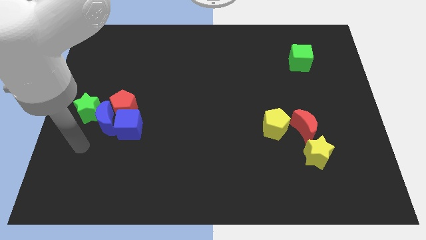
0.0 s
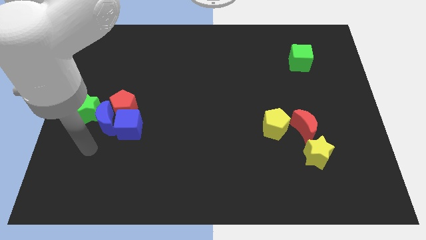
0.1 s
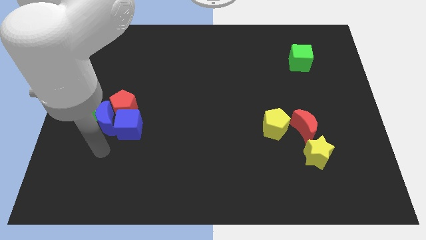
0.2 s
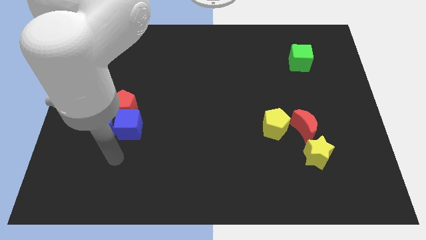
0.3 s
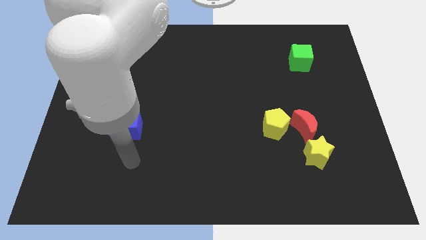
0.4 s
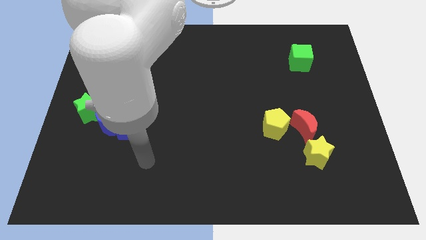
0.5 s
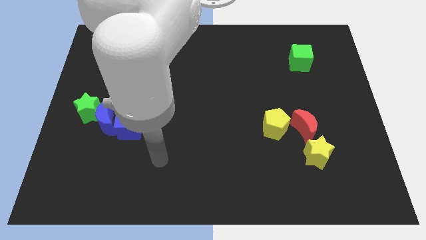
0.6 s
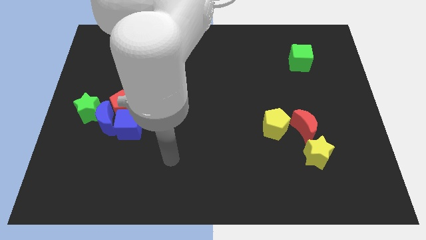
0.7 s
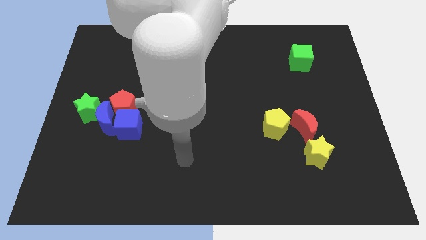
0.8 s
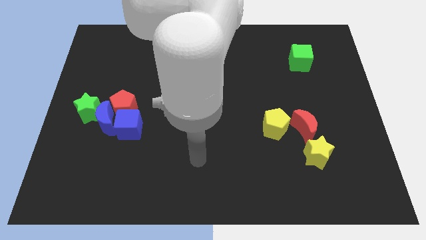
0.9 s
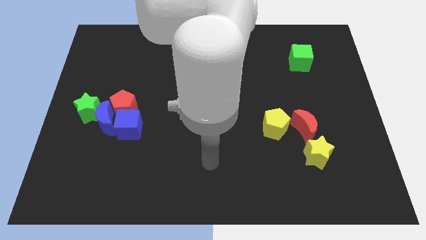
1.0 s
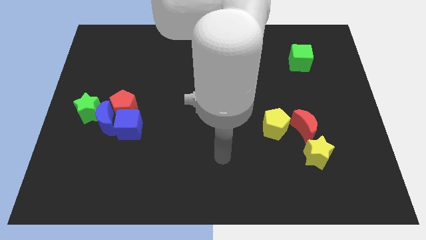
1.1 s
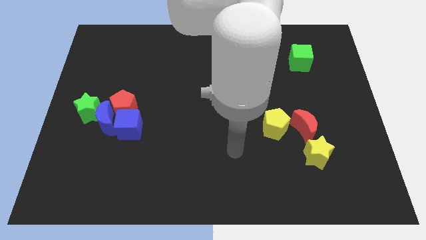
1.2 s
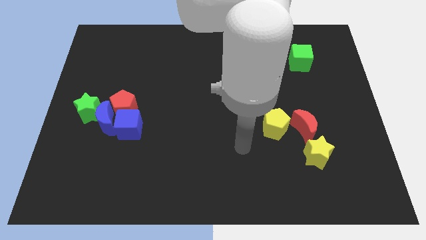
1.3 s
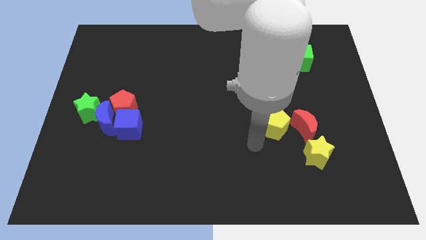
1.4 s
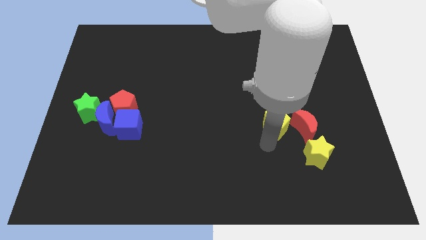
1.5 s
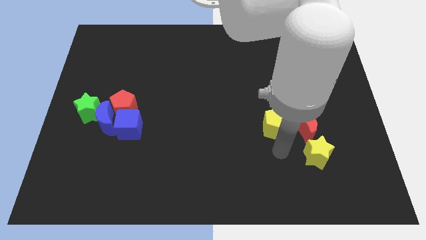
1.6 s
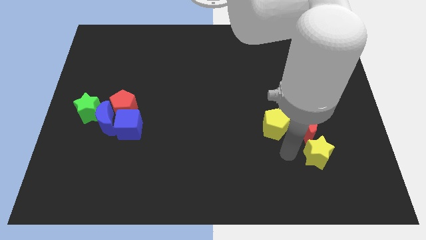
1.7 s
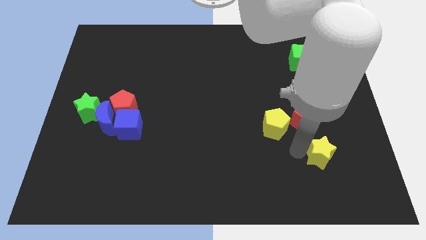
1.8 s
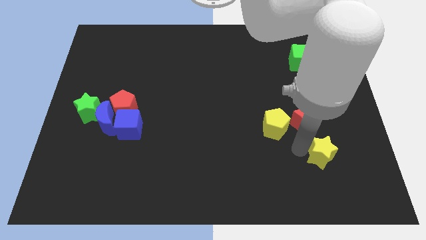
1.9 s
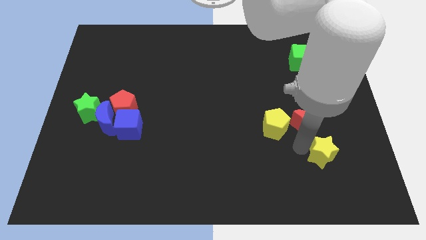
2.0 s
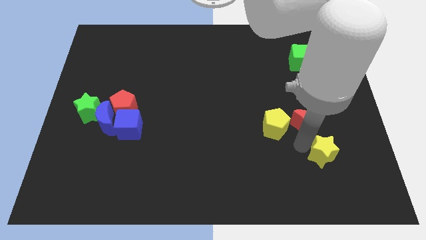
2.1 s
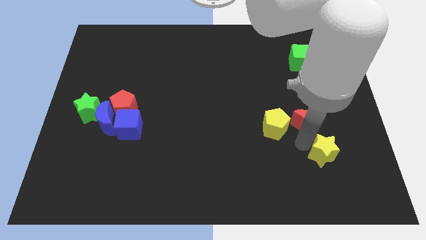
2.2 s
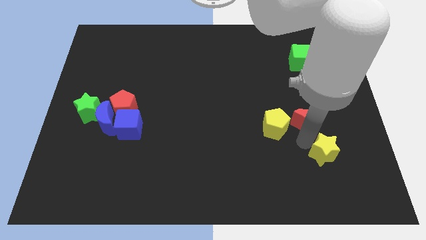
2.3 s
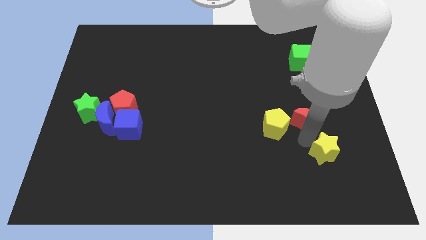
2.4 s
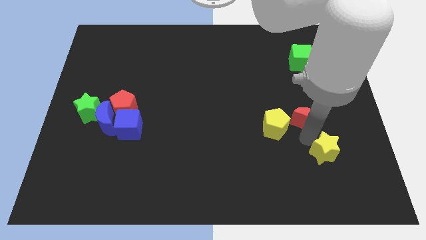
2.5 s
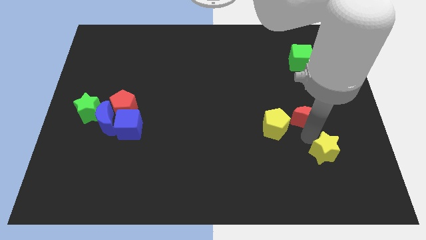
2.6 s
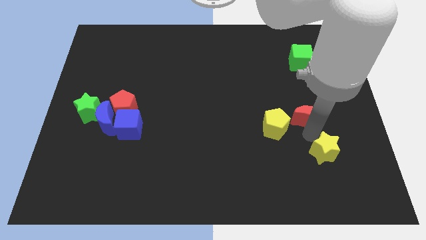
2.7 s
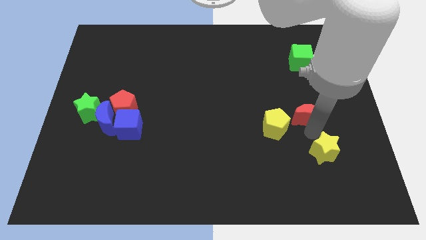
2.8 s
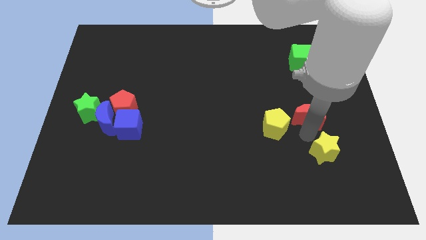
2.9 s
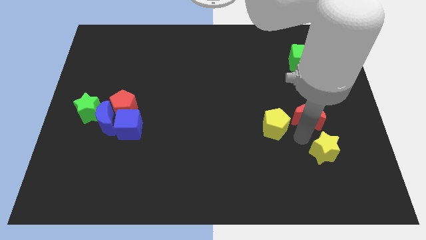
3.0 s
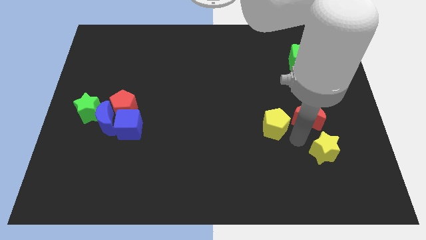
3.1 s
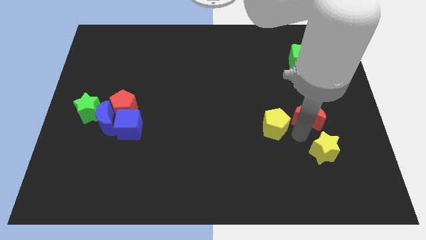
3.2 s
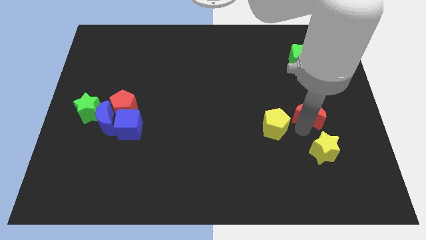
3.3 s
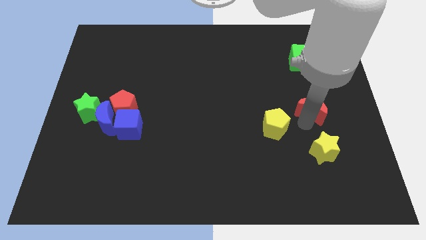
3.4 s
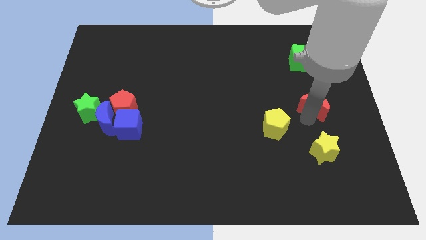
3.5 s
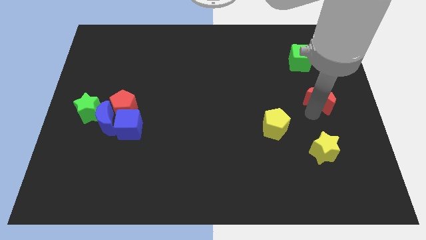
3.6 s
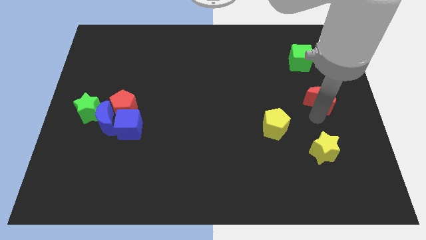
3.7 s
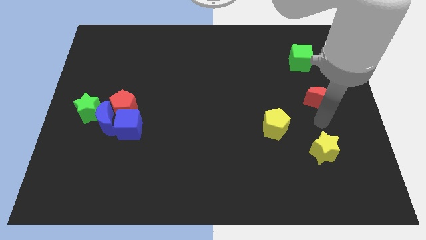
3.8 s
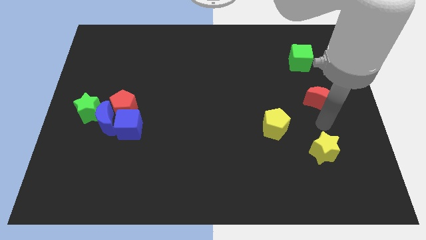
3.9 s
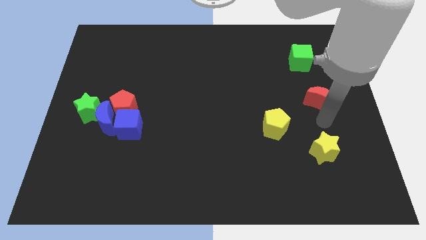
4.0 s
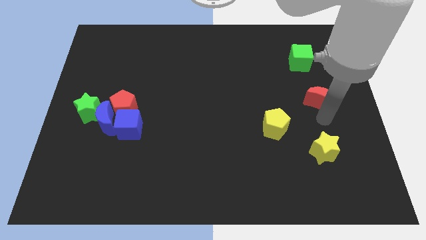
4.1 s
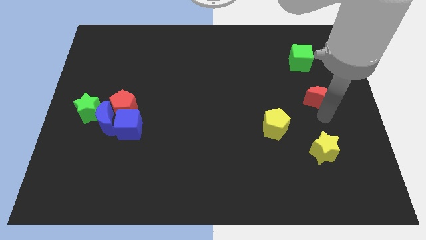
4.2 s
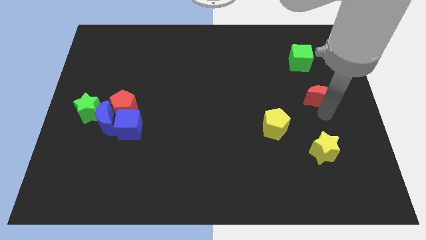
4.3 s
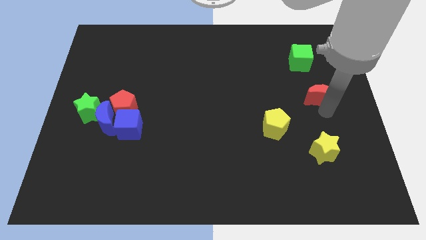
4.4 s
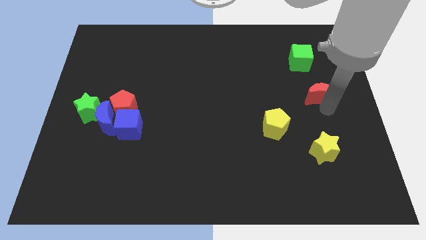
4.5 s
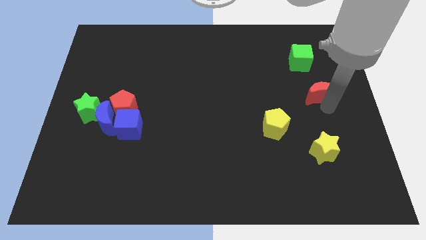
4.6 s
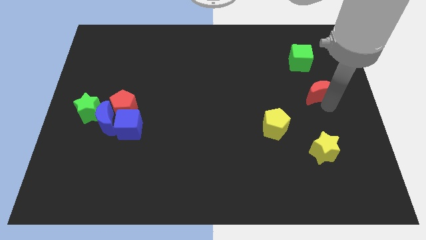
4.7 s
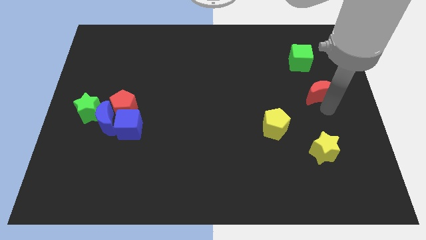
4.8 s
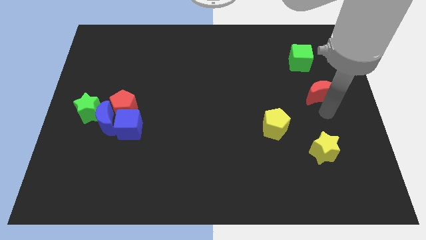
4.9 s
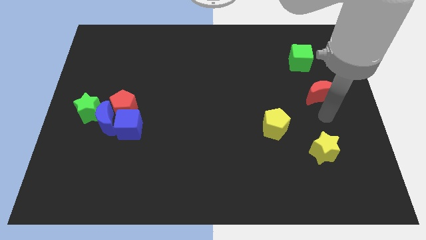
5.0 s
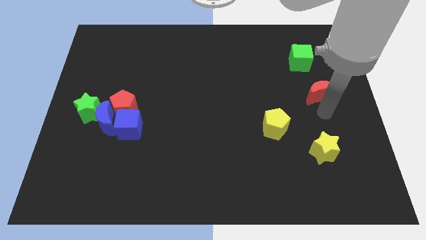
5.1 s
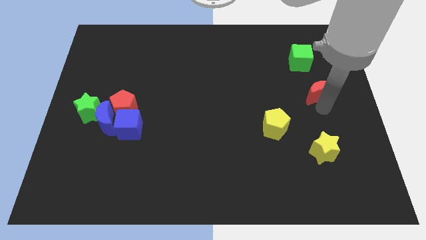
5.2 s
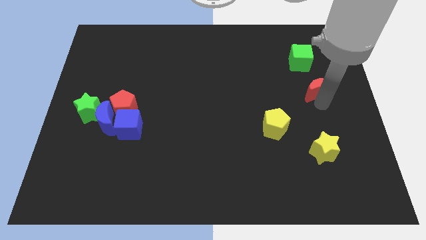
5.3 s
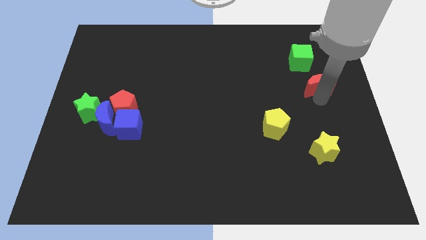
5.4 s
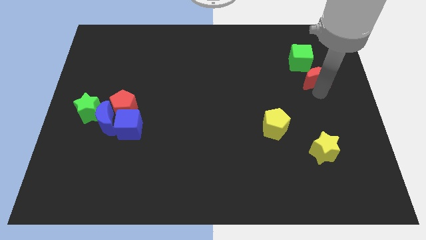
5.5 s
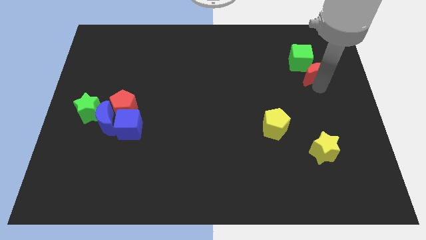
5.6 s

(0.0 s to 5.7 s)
slide the red moon next to the green cube

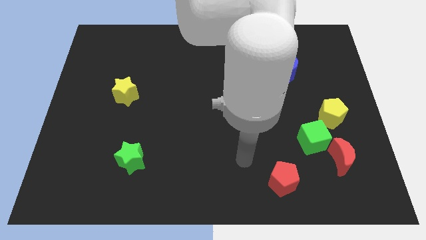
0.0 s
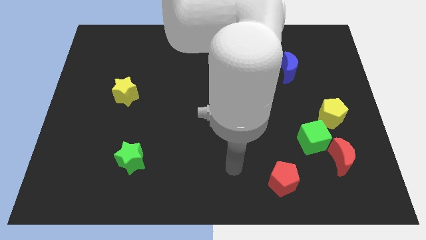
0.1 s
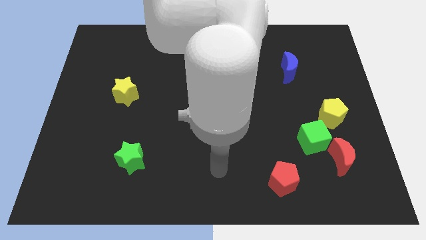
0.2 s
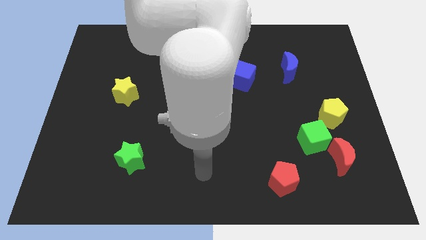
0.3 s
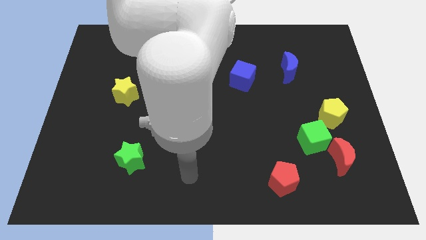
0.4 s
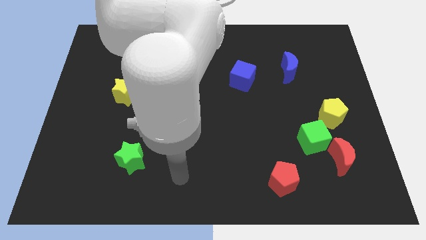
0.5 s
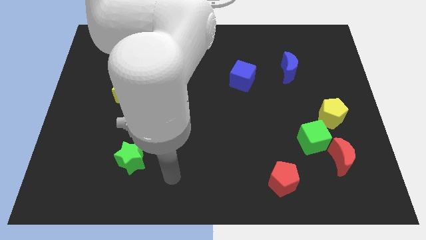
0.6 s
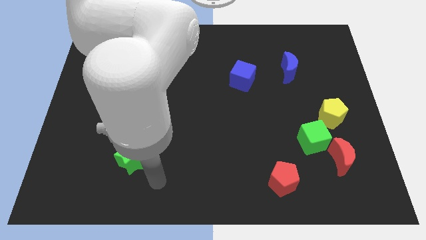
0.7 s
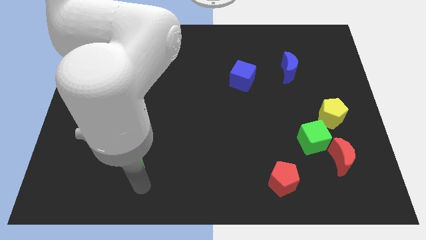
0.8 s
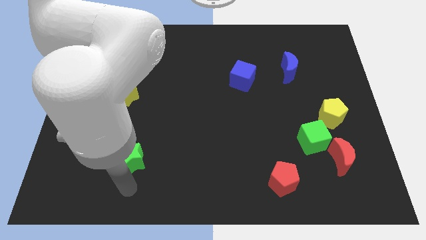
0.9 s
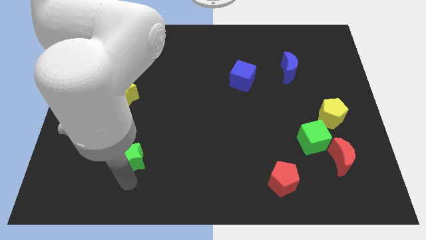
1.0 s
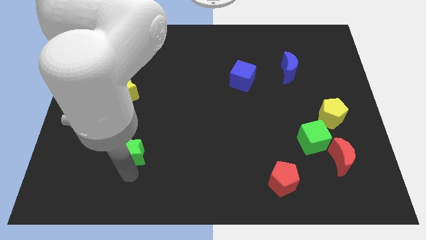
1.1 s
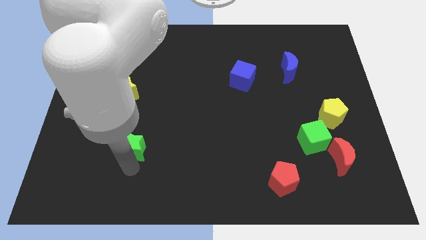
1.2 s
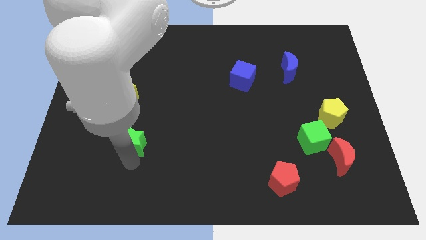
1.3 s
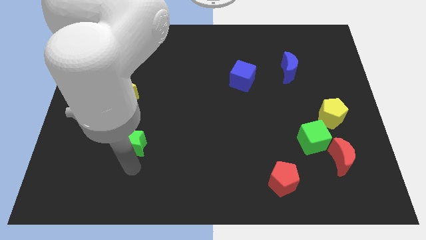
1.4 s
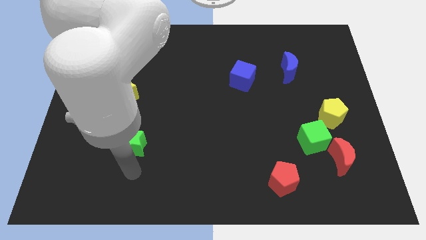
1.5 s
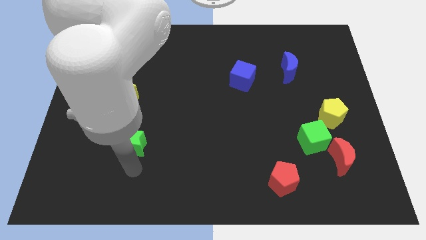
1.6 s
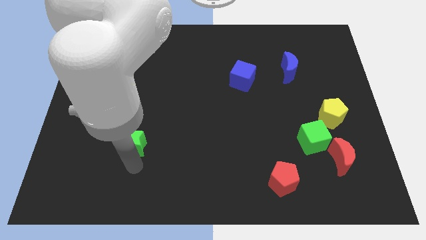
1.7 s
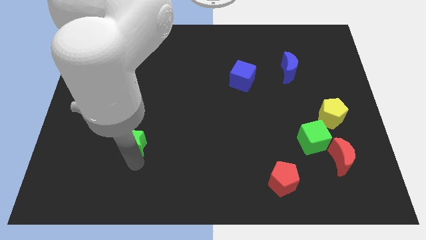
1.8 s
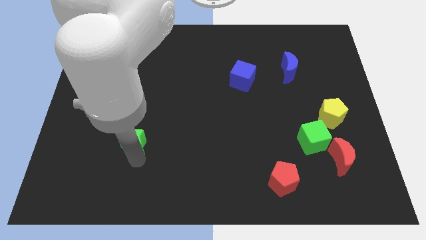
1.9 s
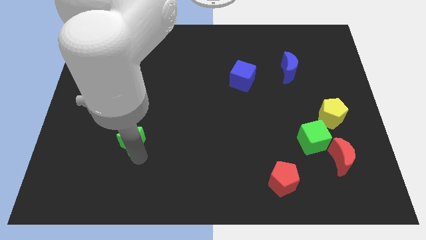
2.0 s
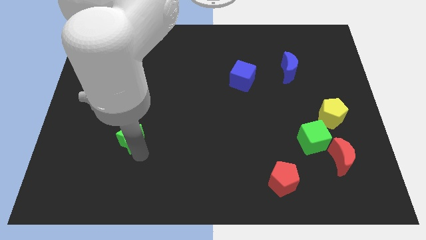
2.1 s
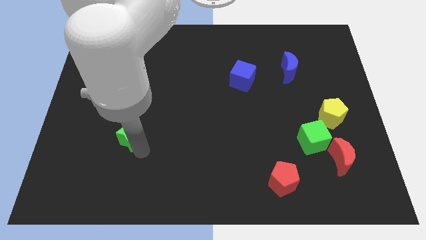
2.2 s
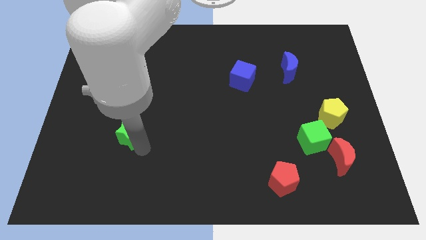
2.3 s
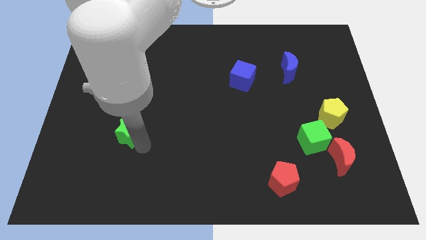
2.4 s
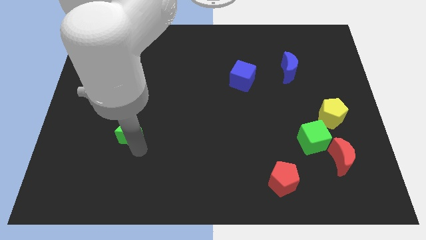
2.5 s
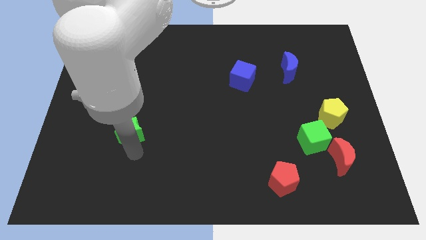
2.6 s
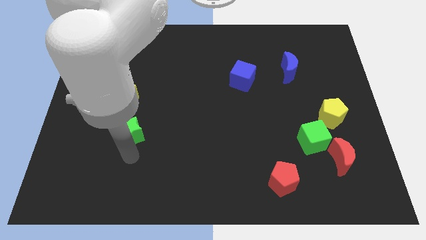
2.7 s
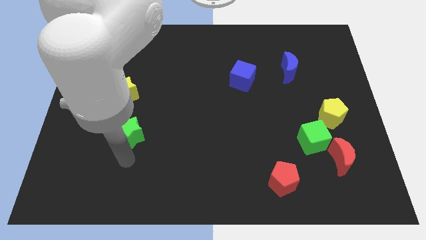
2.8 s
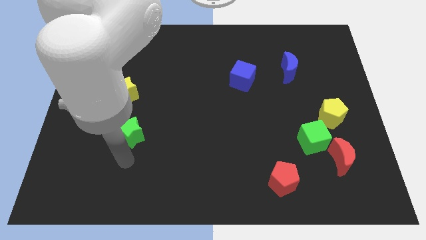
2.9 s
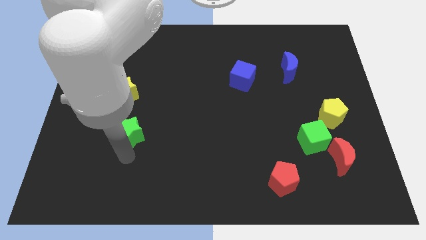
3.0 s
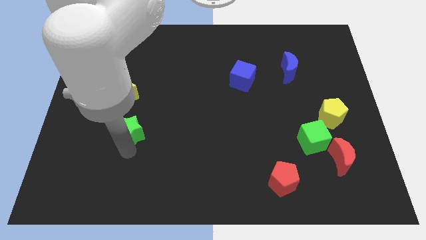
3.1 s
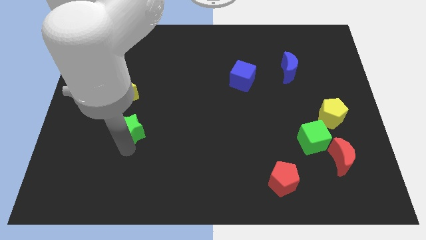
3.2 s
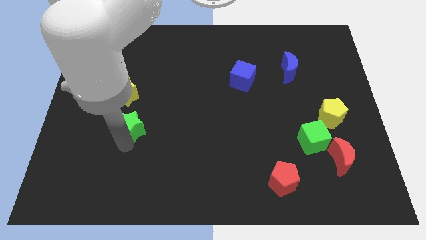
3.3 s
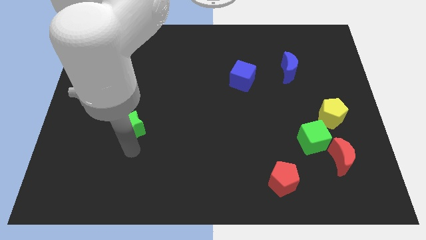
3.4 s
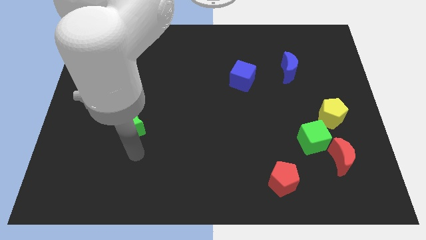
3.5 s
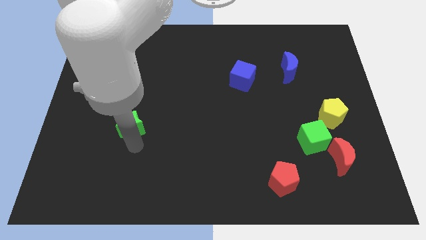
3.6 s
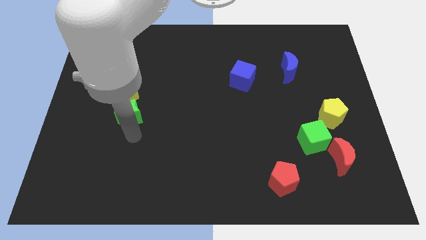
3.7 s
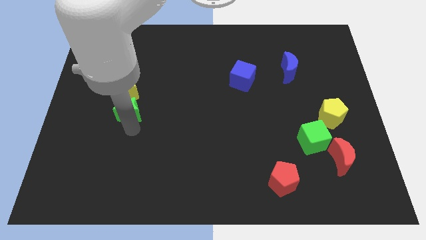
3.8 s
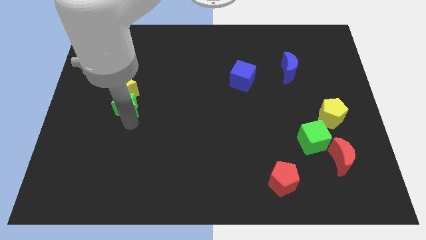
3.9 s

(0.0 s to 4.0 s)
move the green star close to the yellow star
